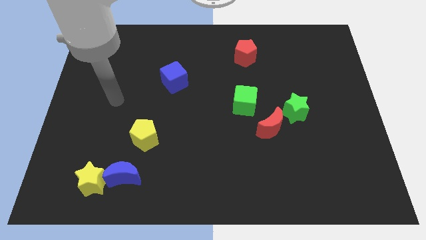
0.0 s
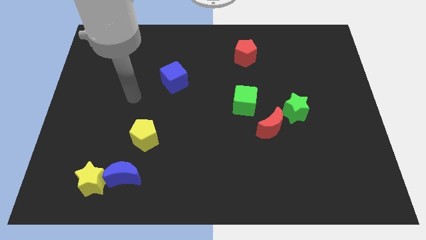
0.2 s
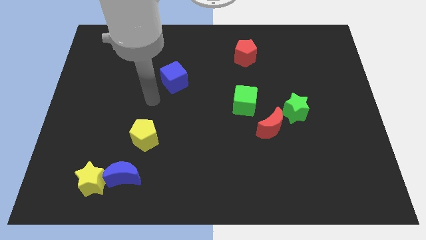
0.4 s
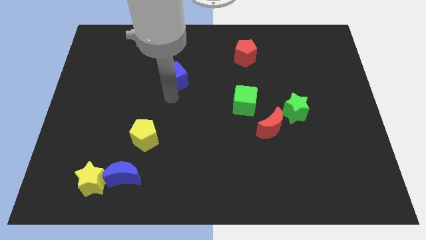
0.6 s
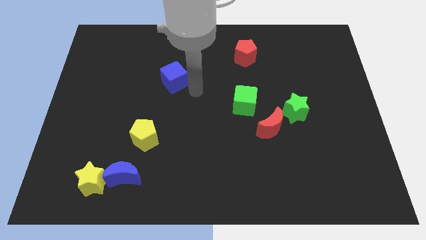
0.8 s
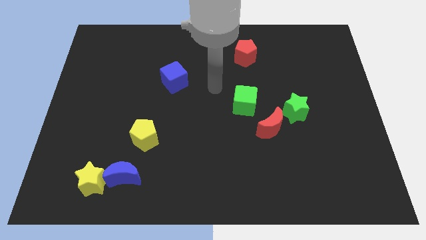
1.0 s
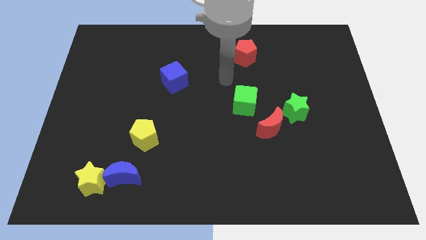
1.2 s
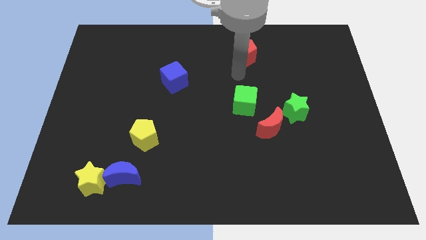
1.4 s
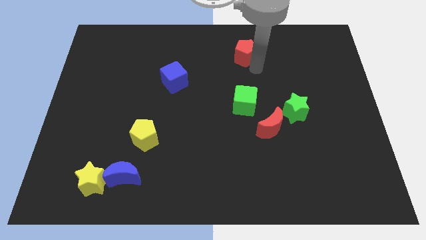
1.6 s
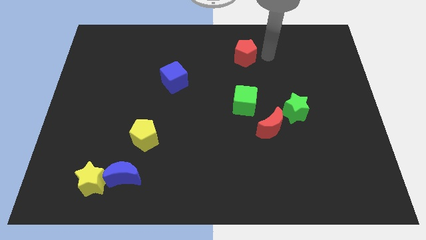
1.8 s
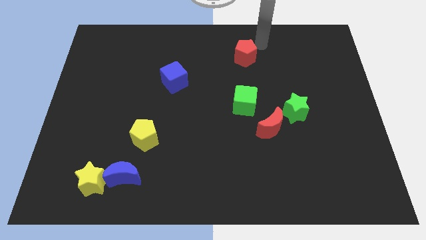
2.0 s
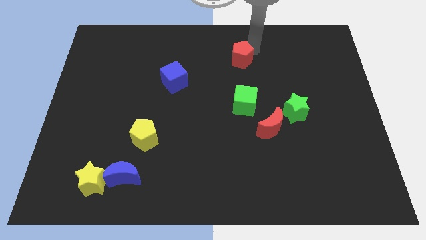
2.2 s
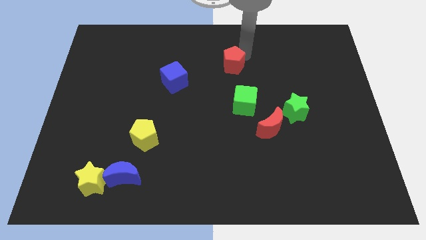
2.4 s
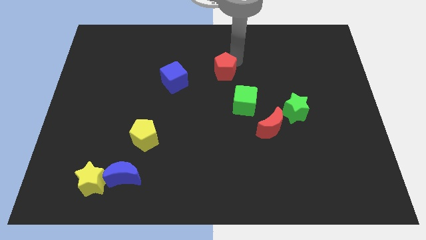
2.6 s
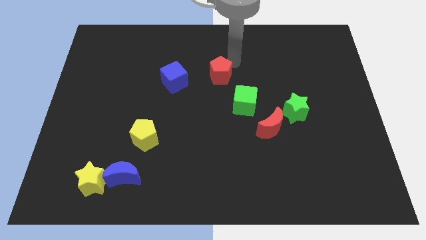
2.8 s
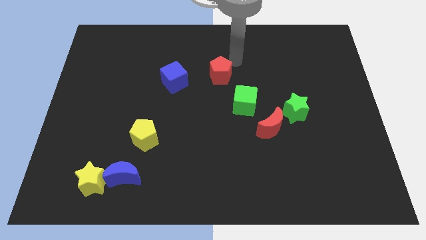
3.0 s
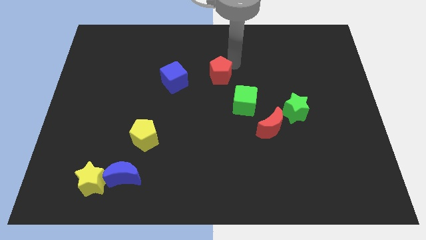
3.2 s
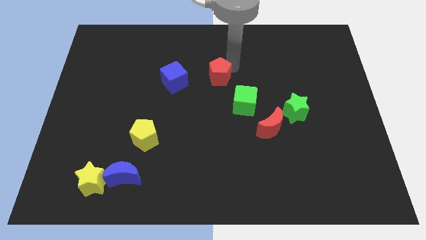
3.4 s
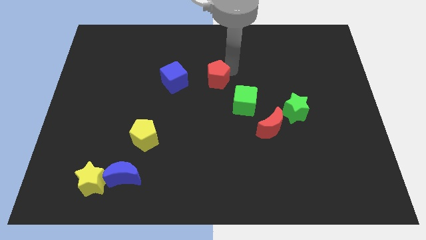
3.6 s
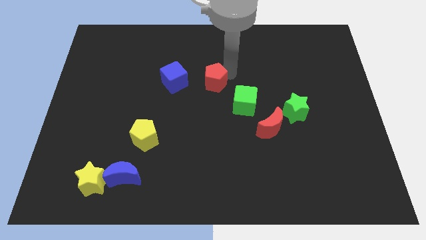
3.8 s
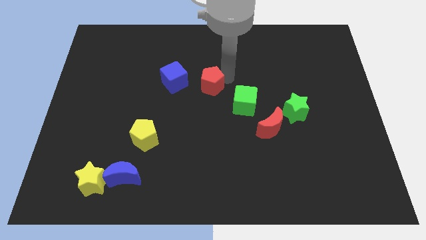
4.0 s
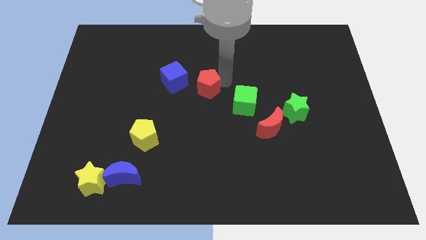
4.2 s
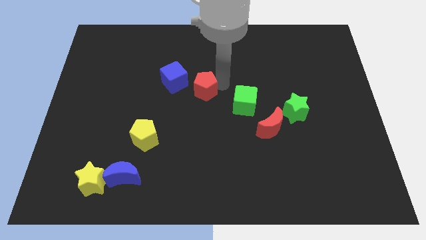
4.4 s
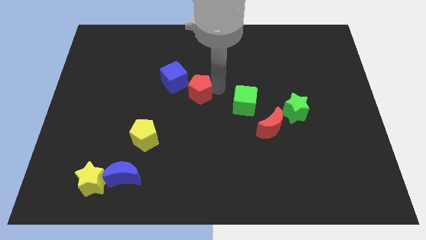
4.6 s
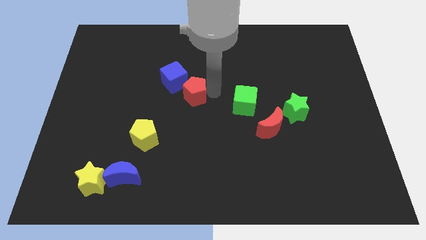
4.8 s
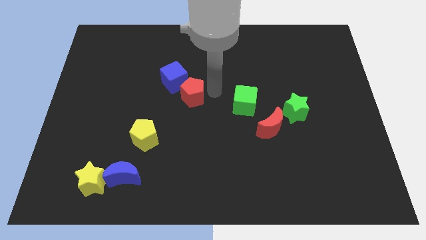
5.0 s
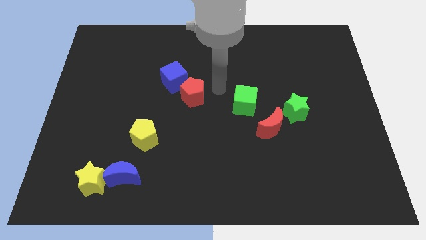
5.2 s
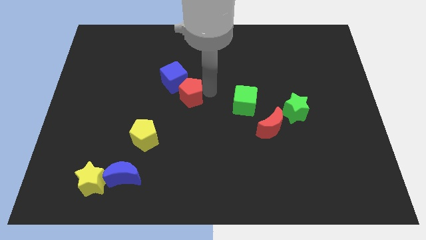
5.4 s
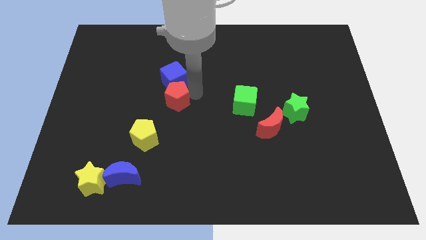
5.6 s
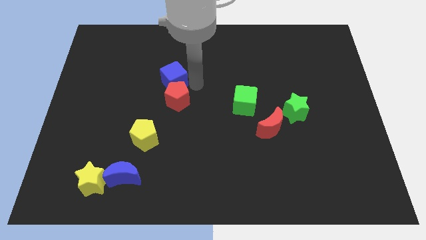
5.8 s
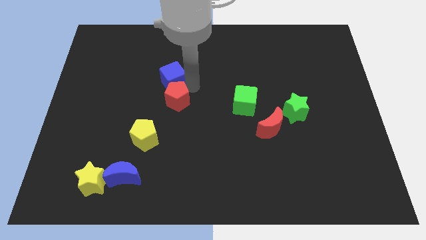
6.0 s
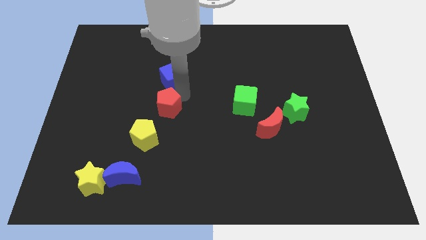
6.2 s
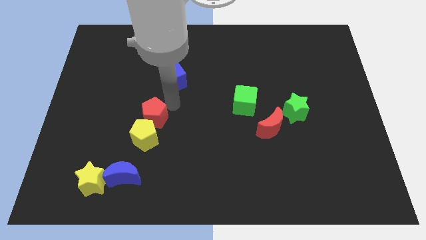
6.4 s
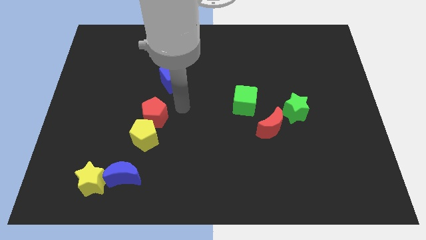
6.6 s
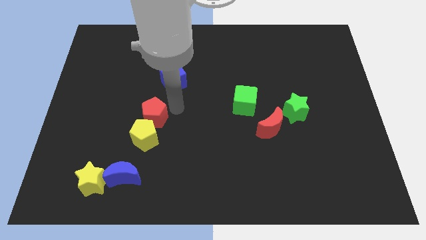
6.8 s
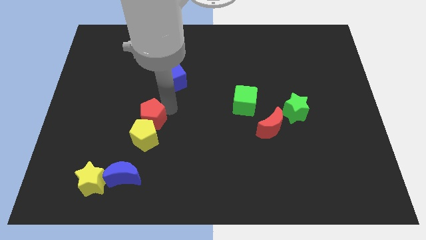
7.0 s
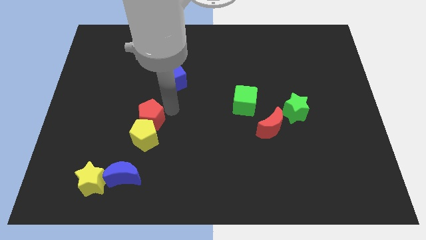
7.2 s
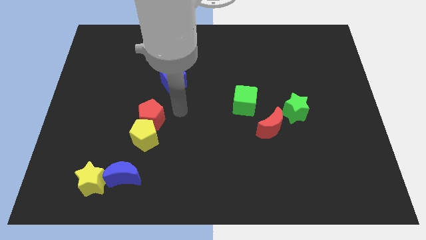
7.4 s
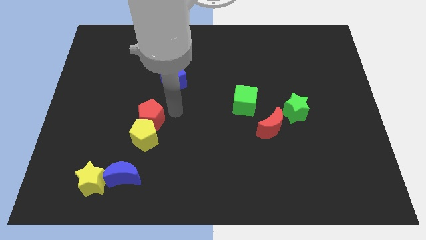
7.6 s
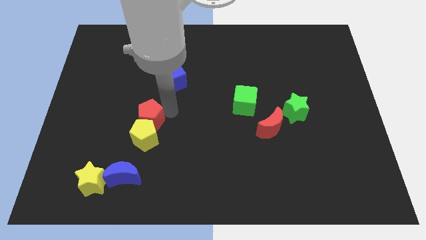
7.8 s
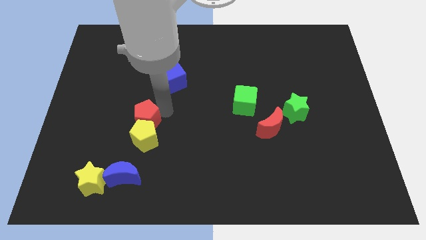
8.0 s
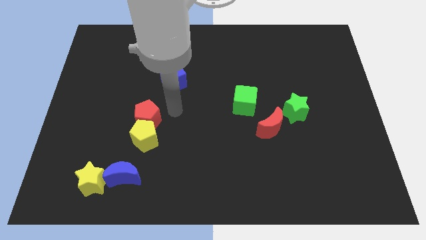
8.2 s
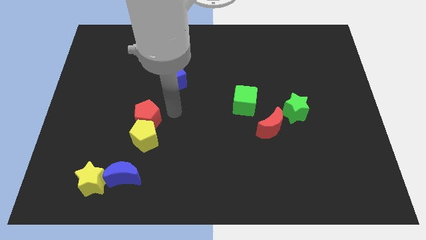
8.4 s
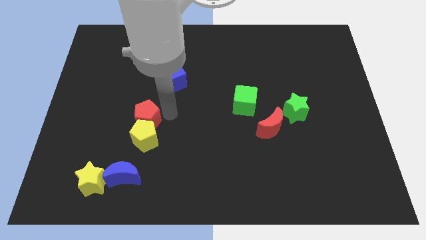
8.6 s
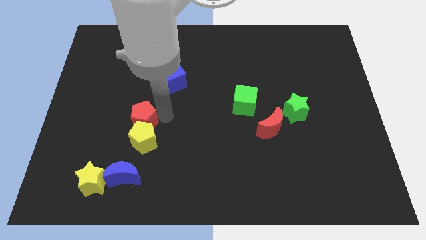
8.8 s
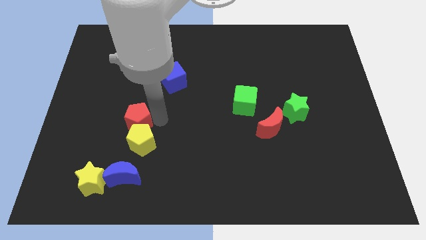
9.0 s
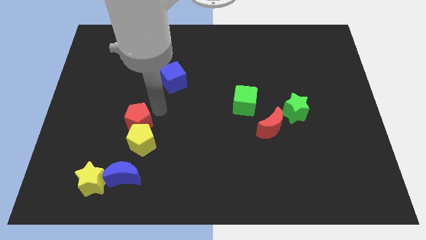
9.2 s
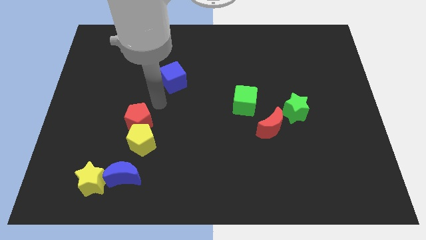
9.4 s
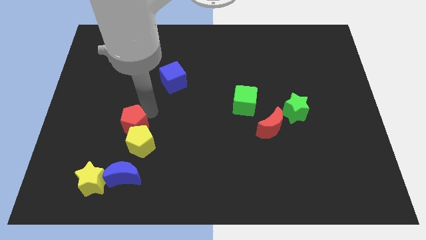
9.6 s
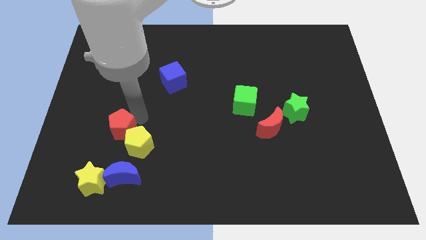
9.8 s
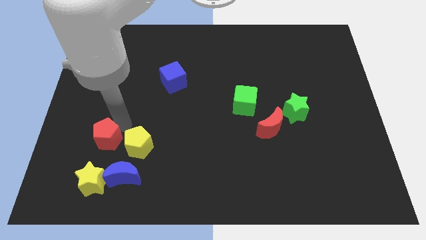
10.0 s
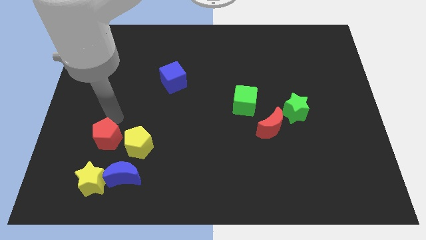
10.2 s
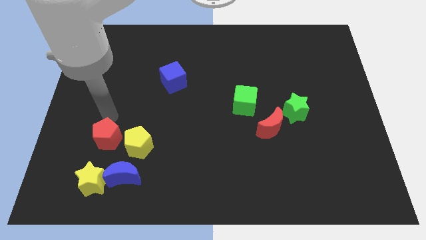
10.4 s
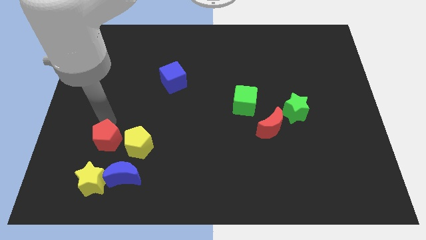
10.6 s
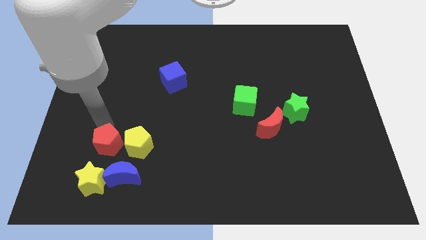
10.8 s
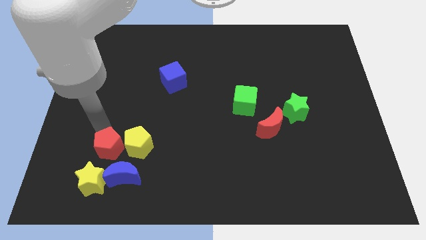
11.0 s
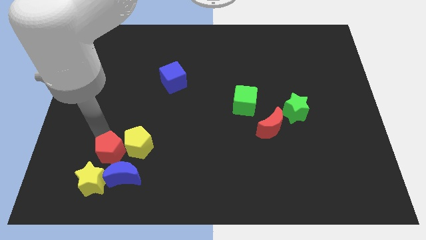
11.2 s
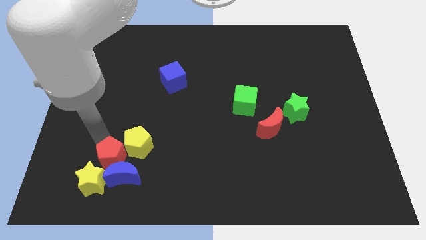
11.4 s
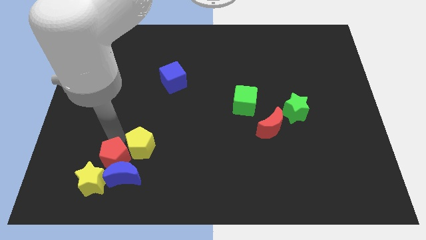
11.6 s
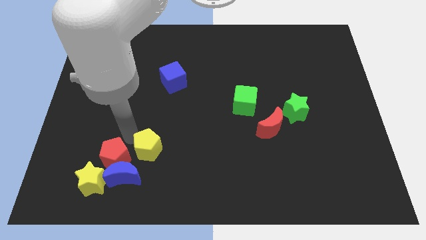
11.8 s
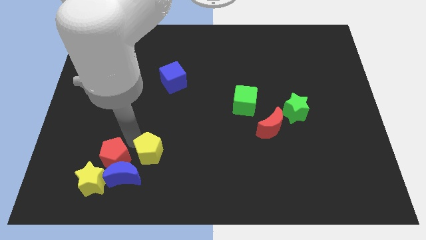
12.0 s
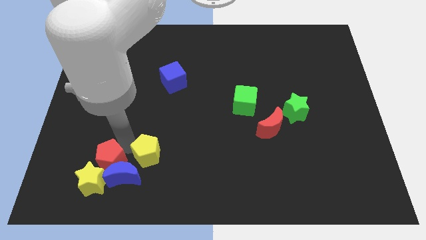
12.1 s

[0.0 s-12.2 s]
push the red pentagon to the yellow star
